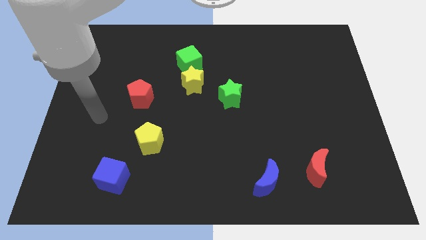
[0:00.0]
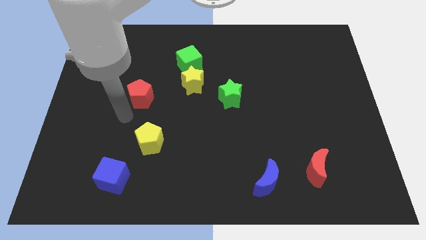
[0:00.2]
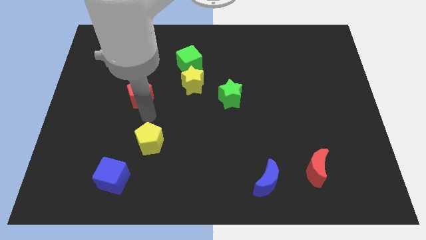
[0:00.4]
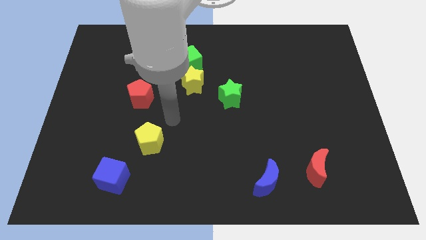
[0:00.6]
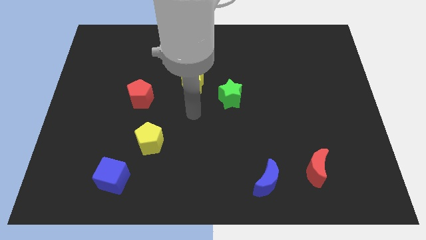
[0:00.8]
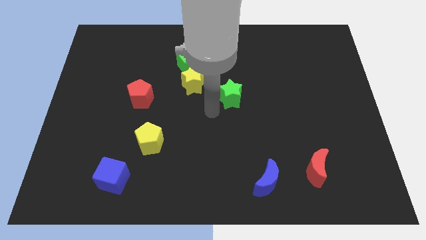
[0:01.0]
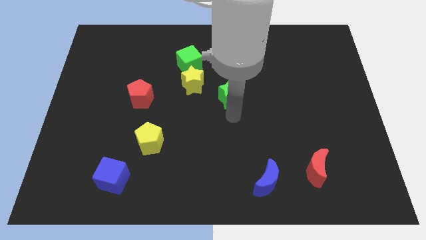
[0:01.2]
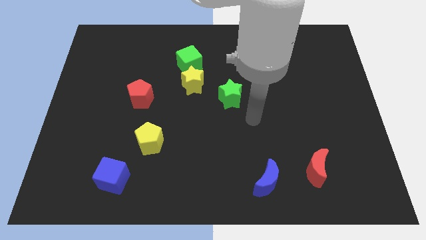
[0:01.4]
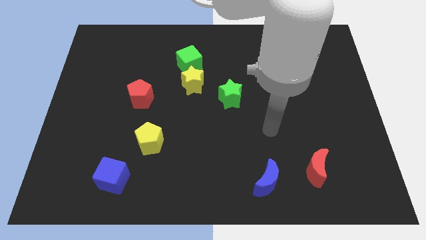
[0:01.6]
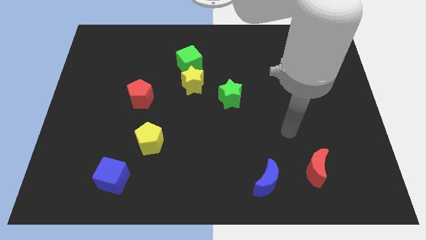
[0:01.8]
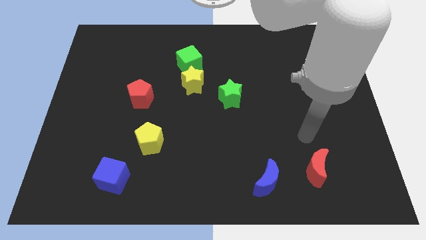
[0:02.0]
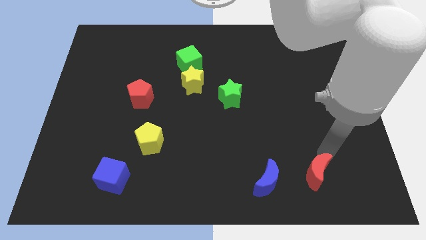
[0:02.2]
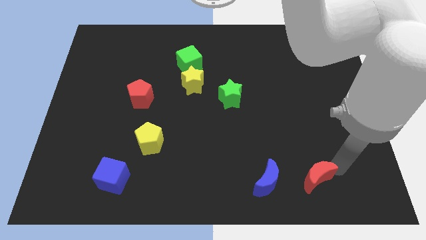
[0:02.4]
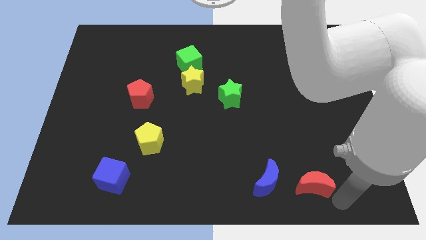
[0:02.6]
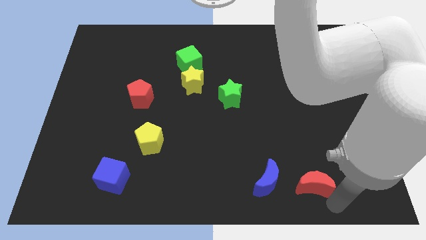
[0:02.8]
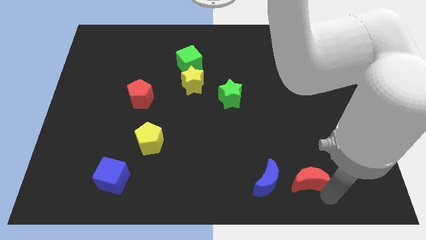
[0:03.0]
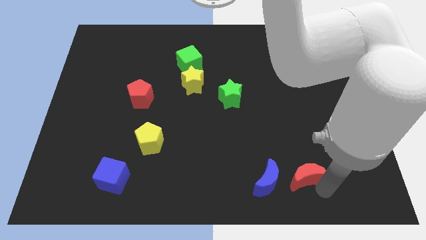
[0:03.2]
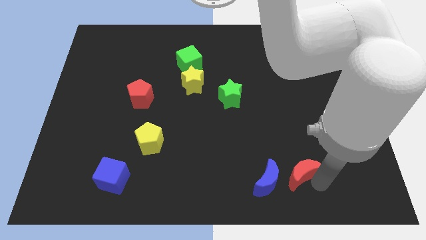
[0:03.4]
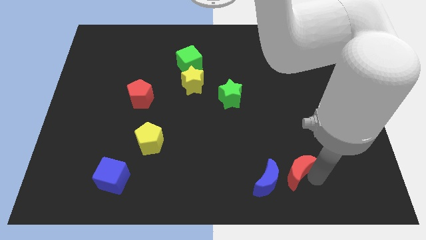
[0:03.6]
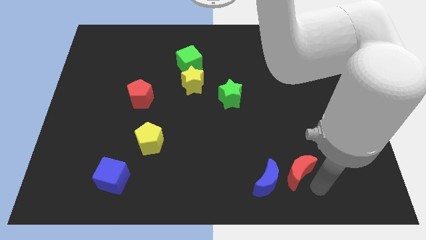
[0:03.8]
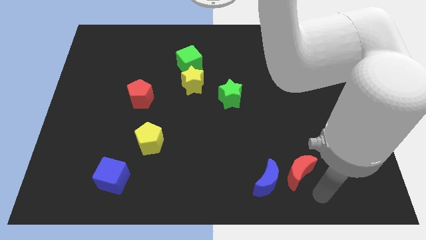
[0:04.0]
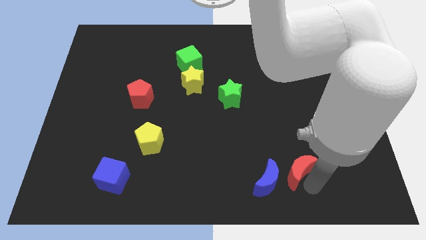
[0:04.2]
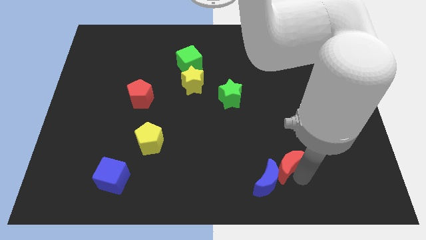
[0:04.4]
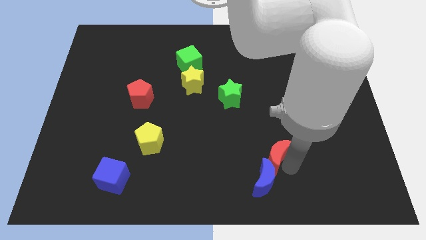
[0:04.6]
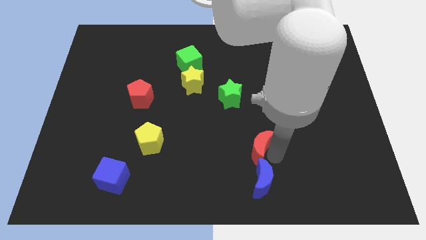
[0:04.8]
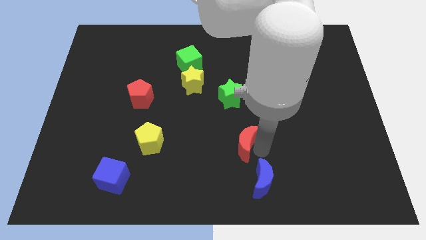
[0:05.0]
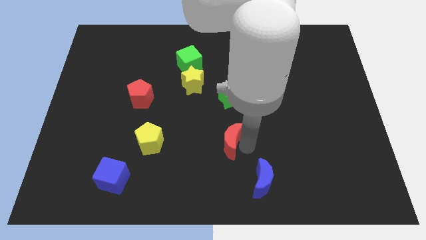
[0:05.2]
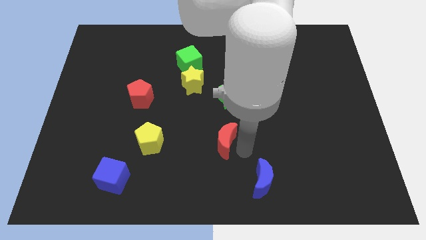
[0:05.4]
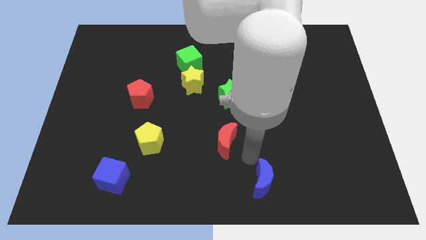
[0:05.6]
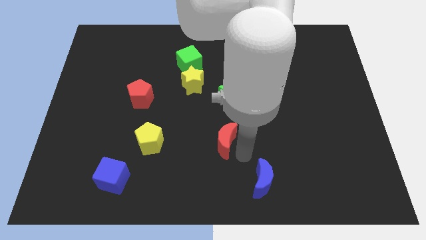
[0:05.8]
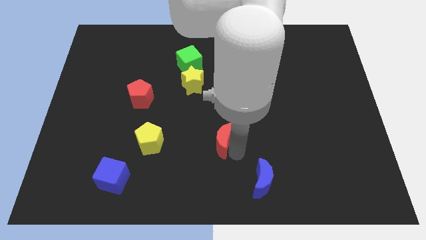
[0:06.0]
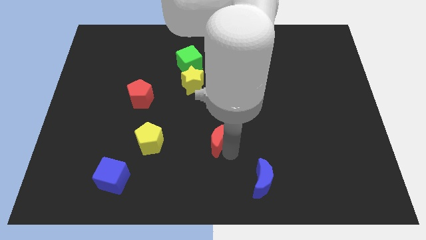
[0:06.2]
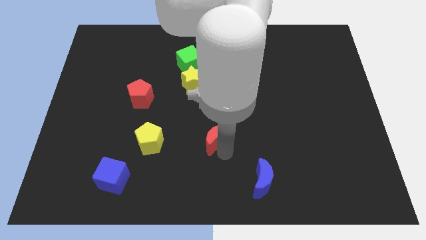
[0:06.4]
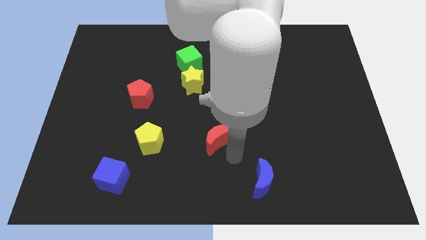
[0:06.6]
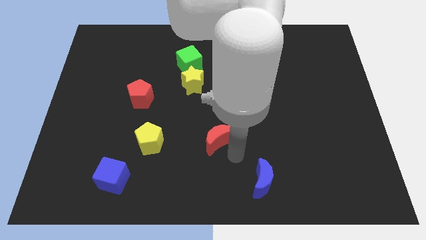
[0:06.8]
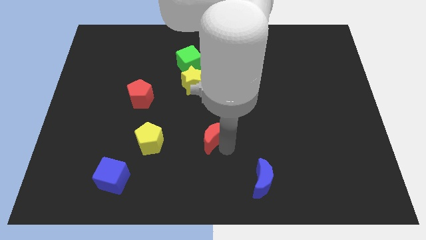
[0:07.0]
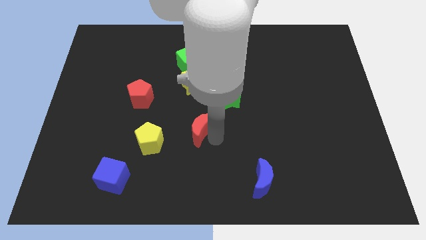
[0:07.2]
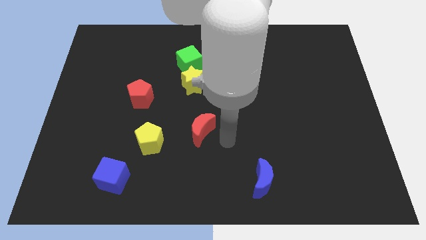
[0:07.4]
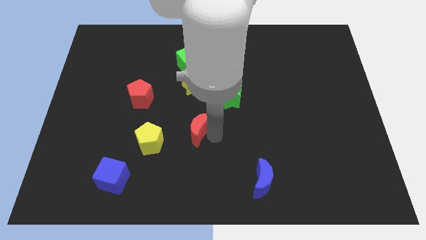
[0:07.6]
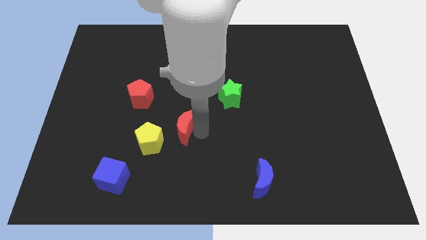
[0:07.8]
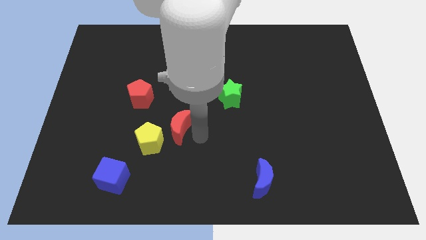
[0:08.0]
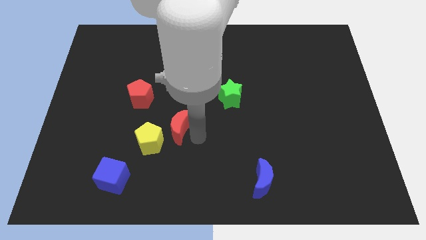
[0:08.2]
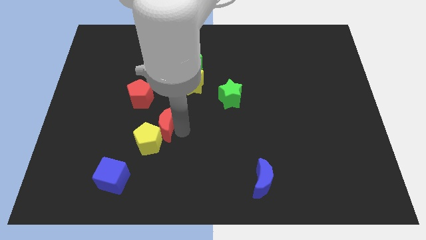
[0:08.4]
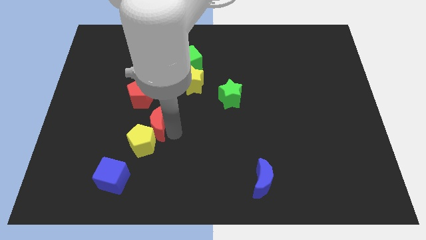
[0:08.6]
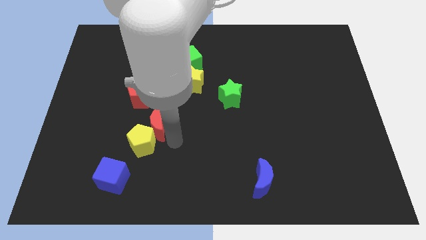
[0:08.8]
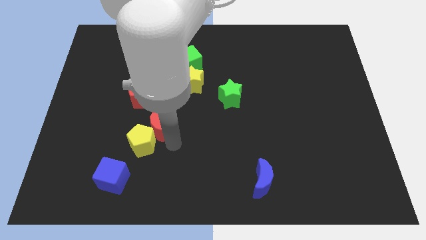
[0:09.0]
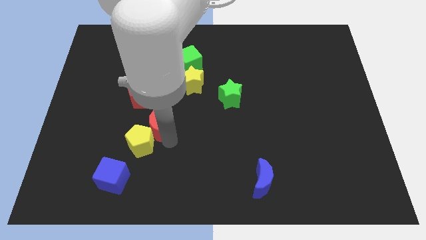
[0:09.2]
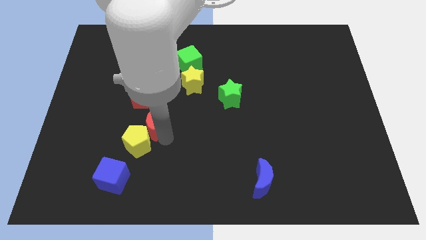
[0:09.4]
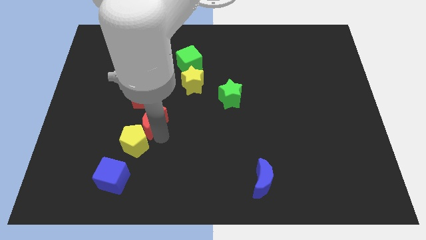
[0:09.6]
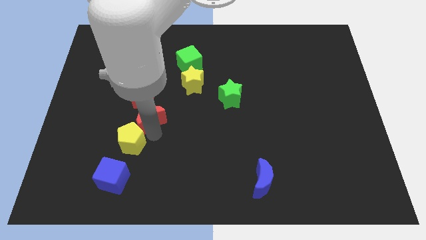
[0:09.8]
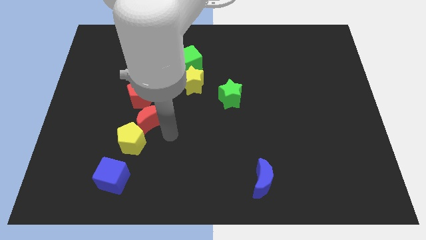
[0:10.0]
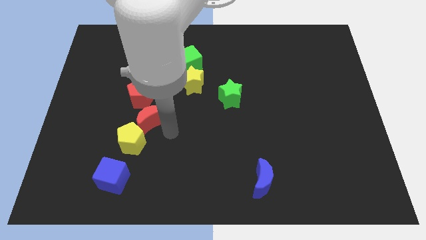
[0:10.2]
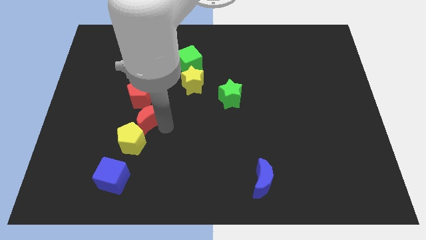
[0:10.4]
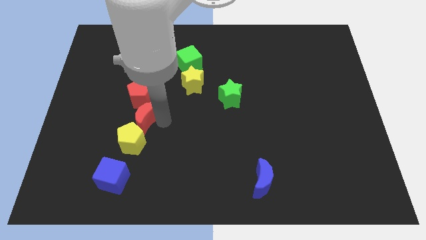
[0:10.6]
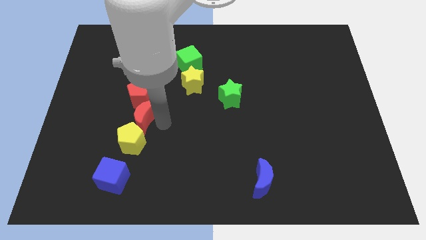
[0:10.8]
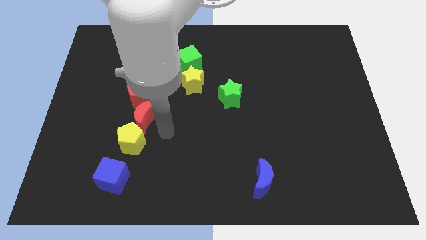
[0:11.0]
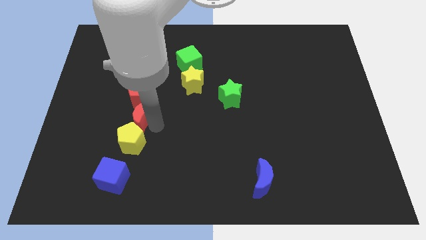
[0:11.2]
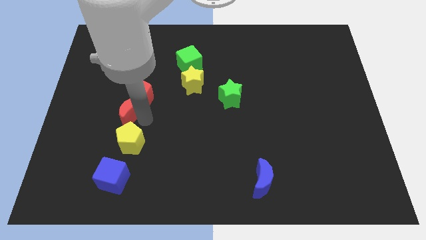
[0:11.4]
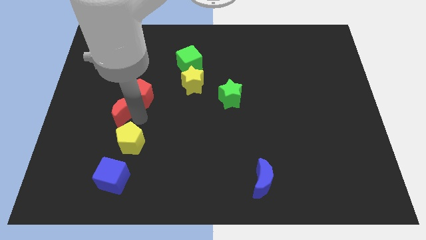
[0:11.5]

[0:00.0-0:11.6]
put the red moon to the left of the red pentagon

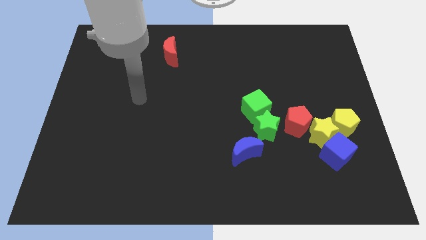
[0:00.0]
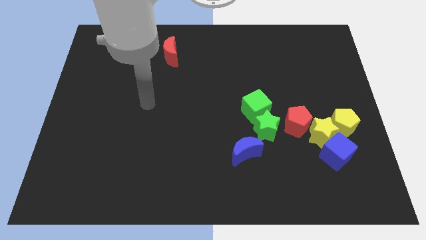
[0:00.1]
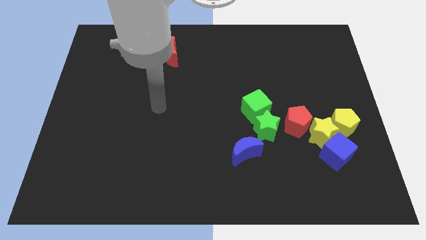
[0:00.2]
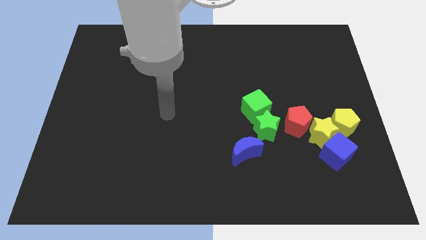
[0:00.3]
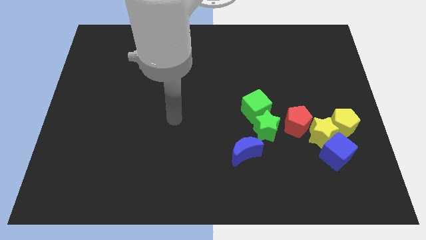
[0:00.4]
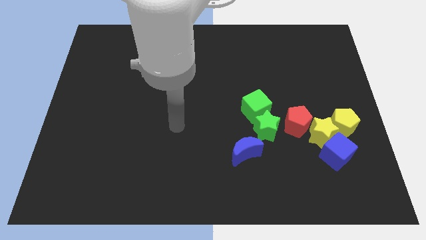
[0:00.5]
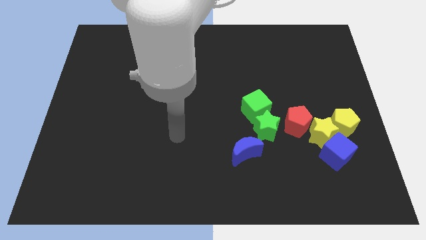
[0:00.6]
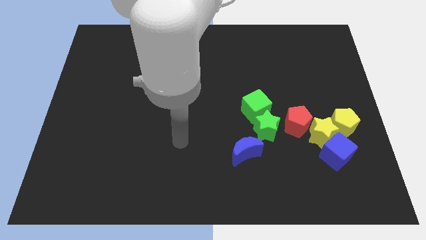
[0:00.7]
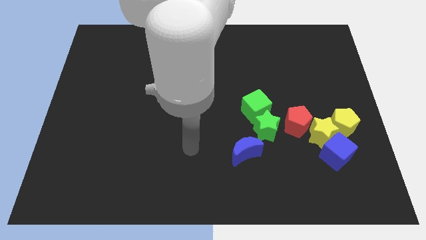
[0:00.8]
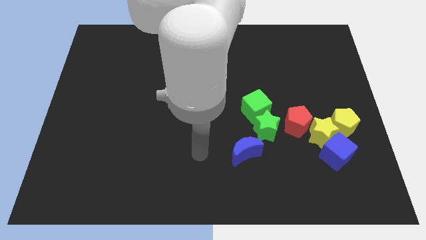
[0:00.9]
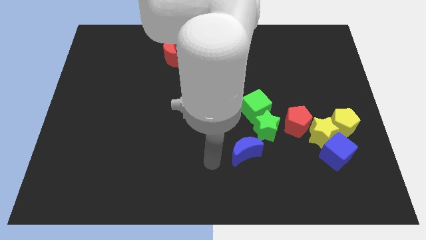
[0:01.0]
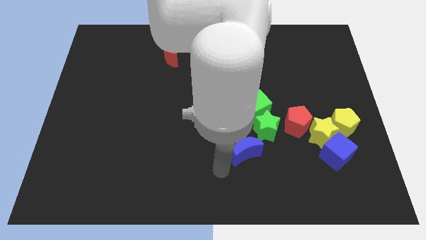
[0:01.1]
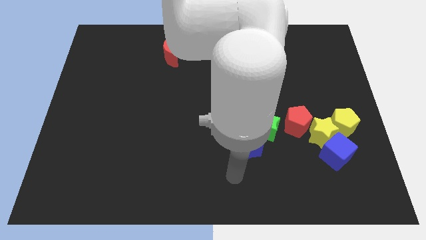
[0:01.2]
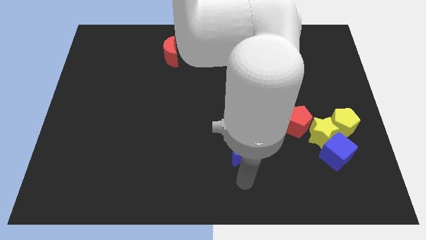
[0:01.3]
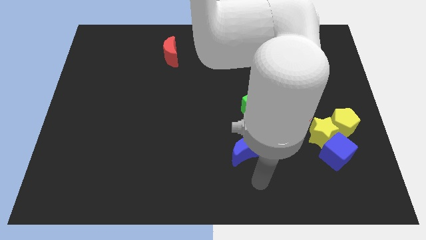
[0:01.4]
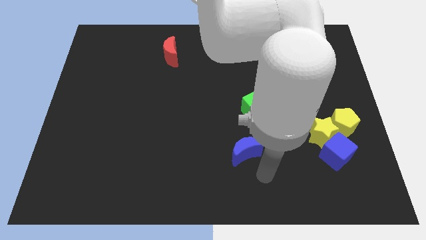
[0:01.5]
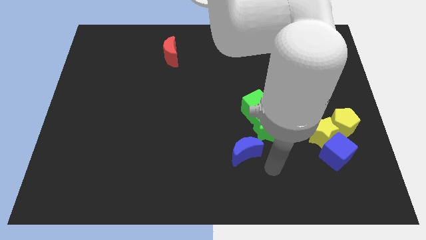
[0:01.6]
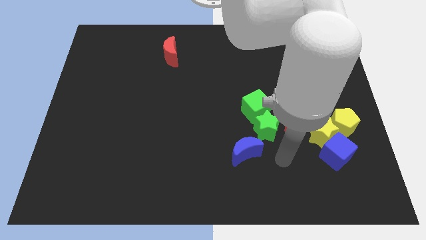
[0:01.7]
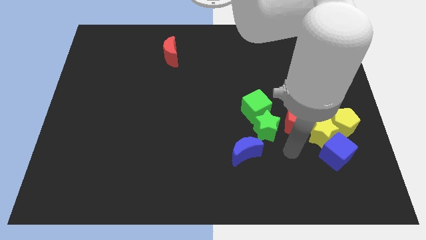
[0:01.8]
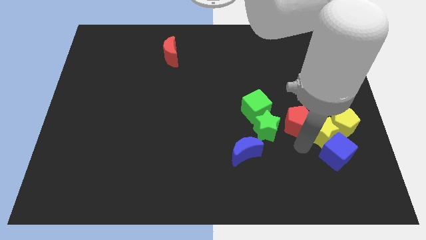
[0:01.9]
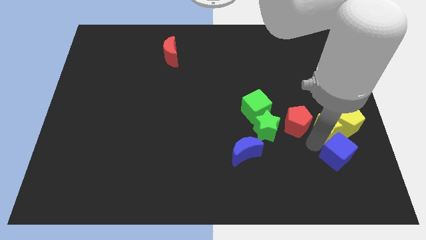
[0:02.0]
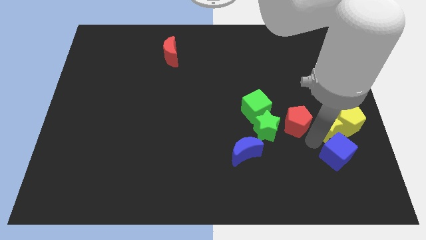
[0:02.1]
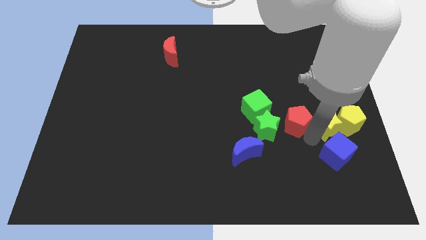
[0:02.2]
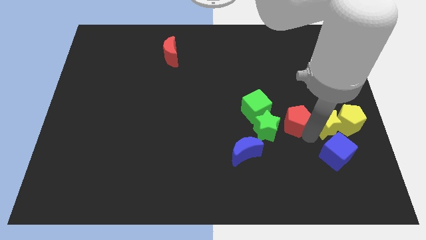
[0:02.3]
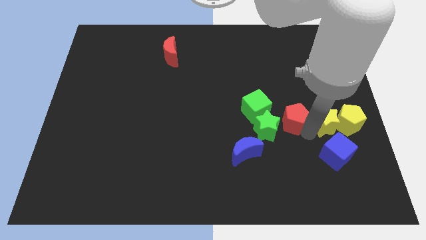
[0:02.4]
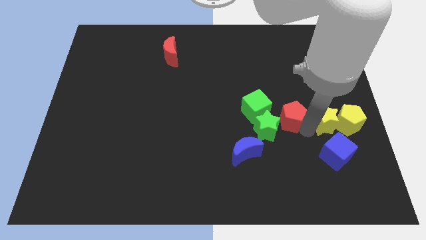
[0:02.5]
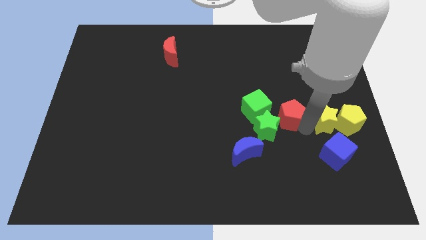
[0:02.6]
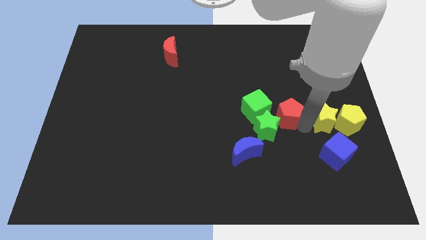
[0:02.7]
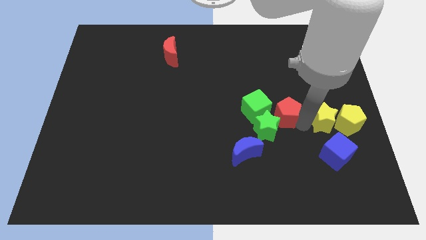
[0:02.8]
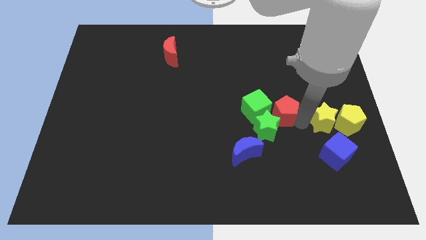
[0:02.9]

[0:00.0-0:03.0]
slide the red pentagon to the top of the green star
